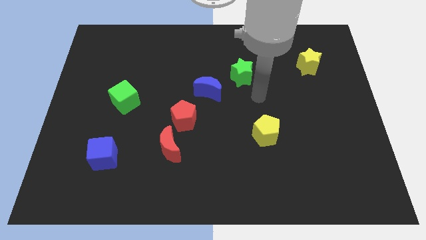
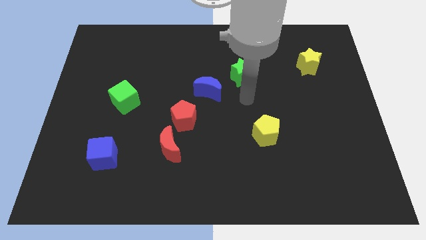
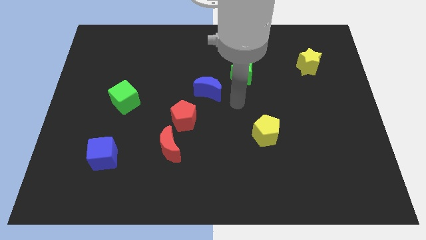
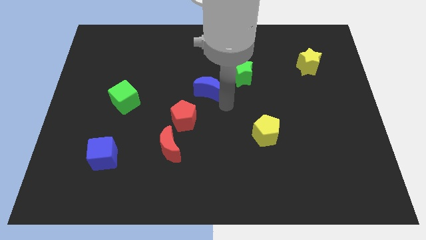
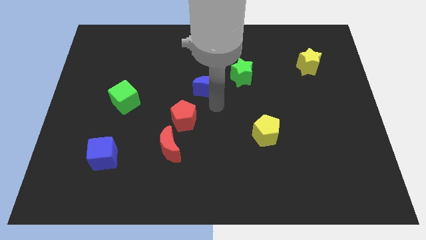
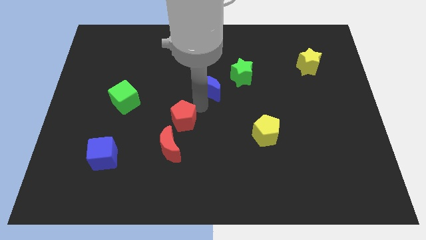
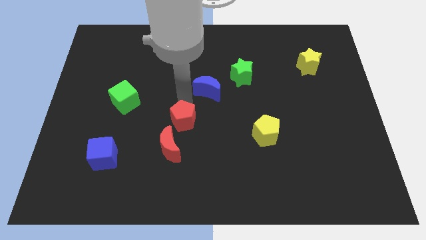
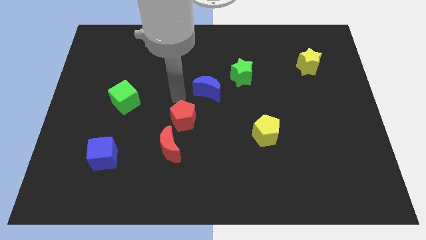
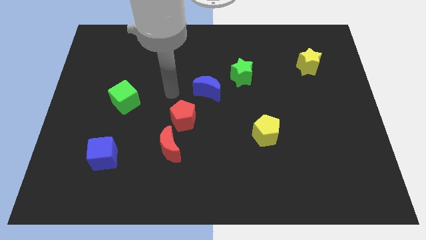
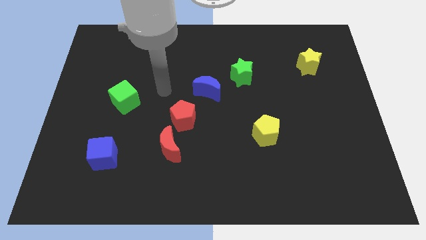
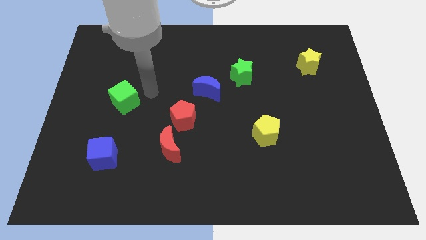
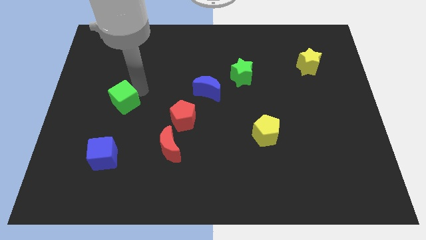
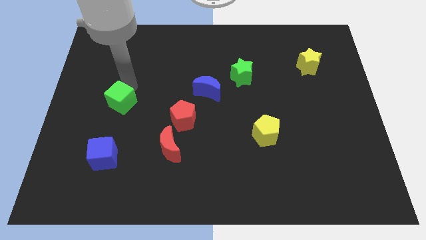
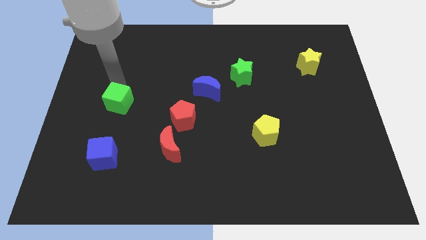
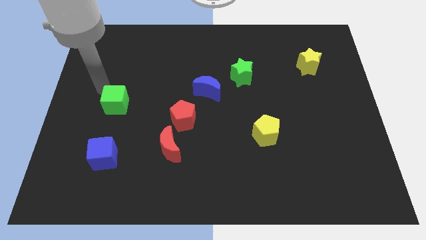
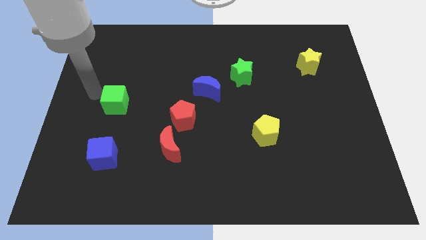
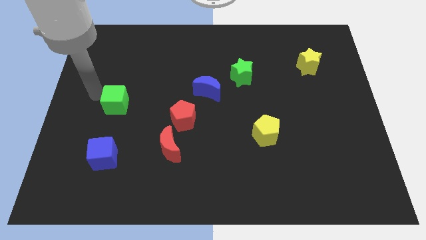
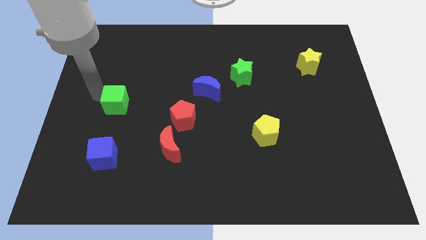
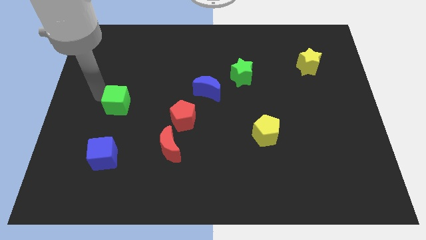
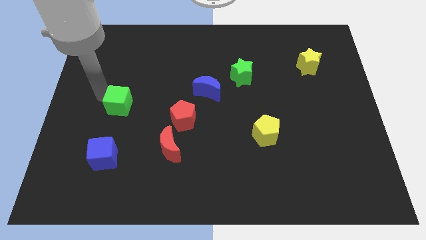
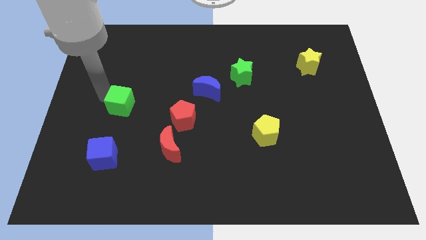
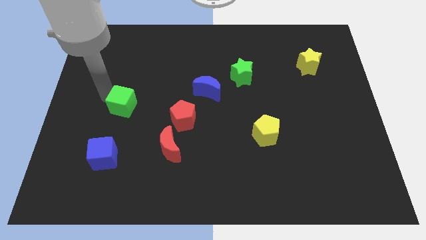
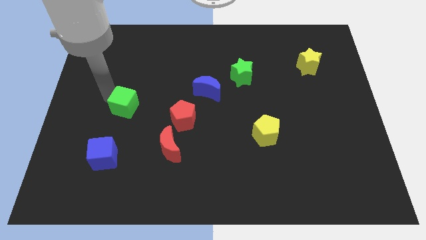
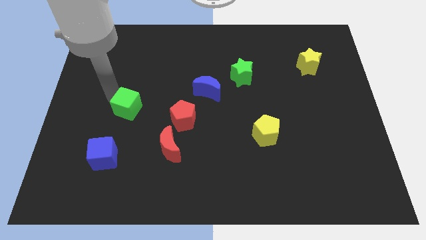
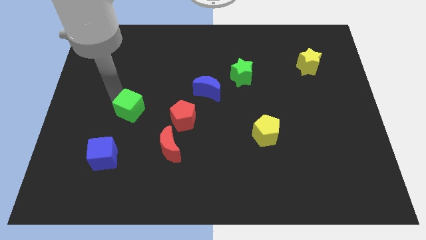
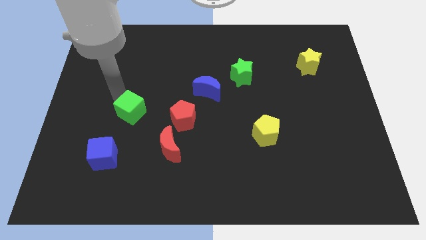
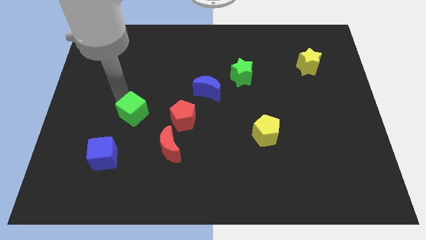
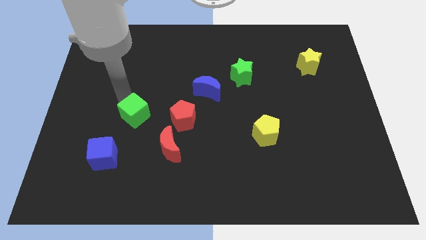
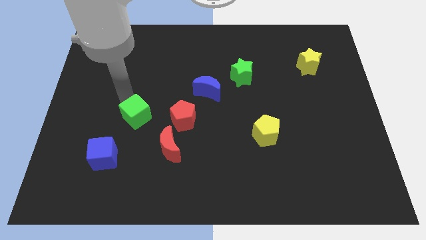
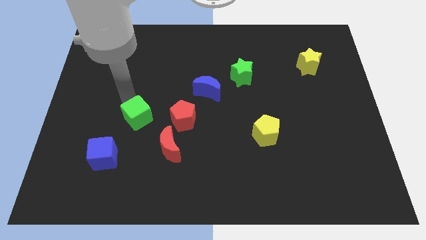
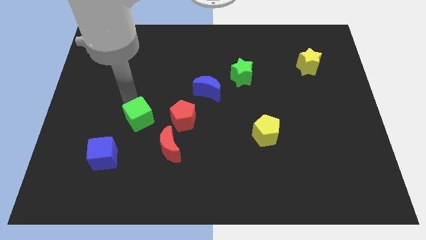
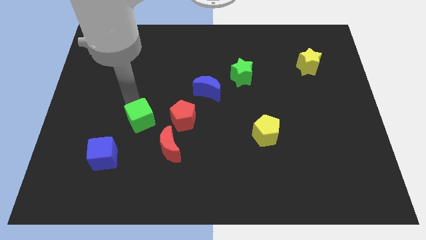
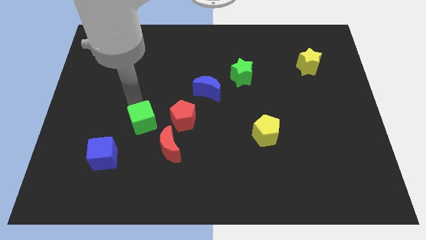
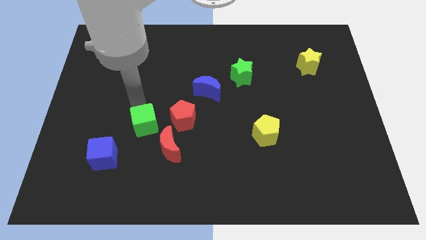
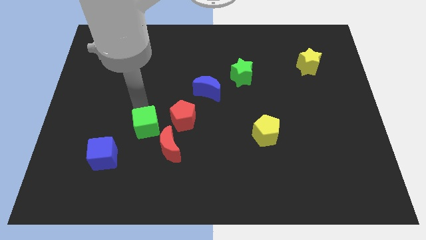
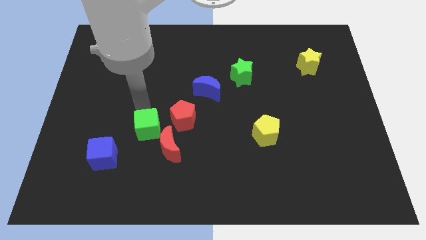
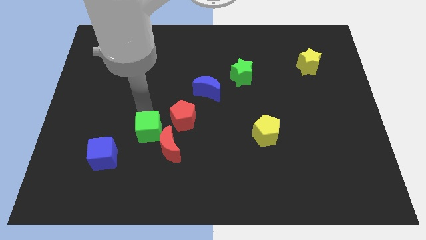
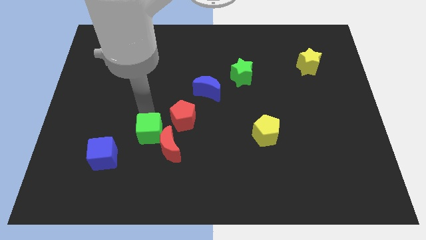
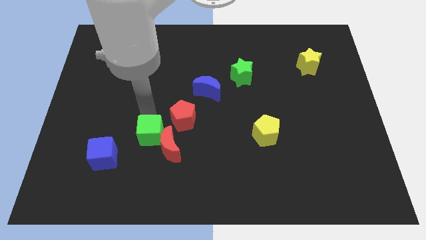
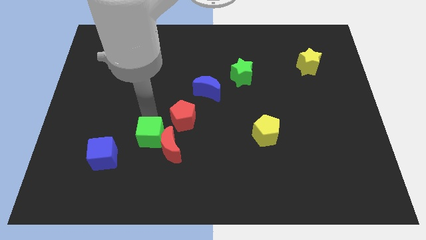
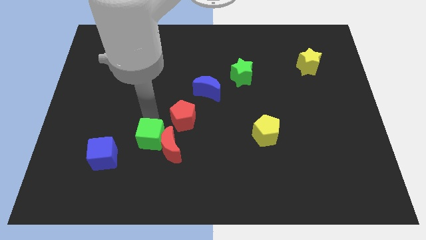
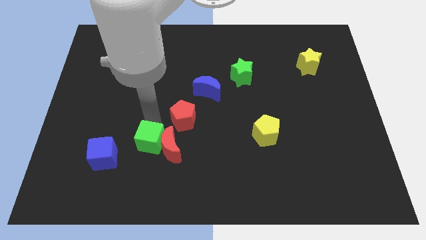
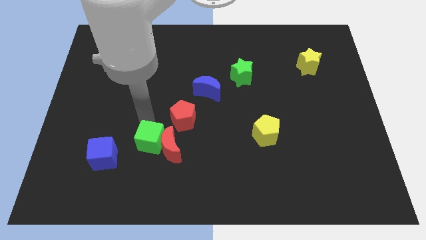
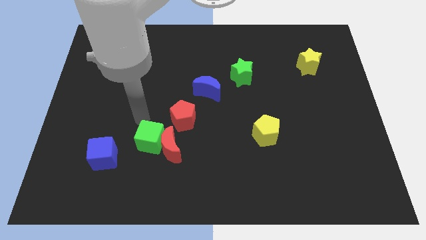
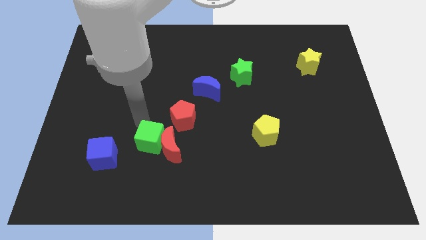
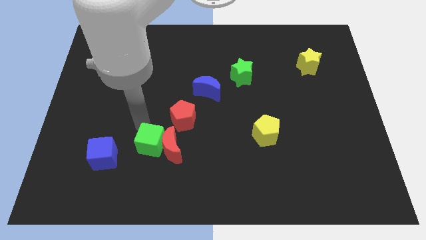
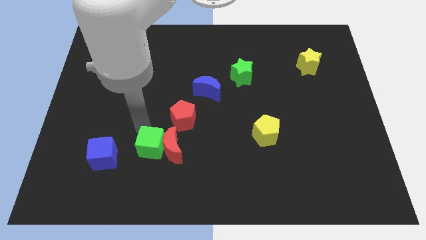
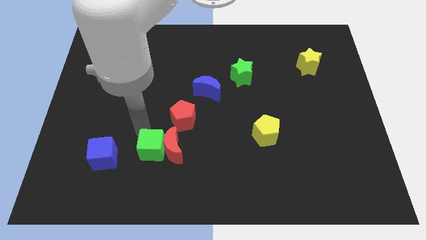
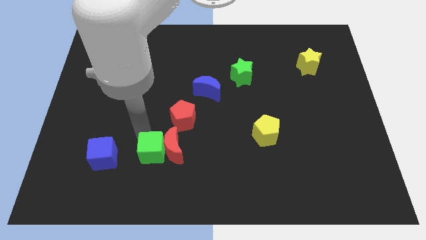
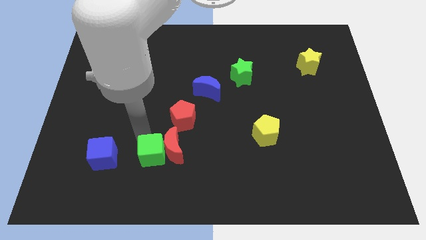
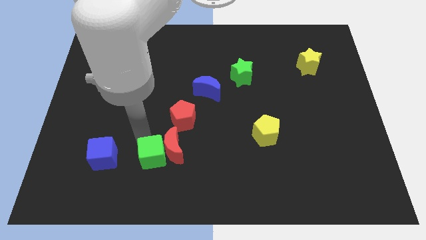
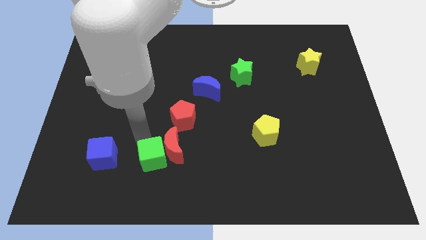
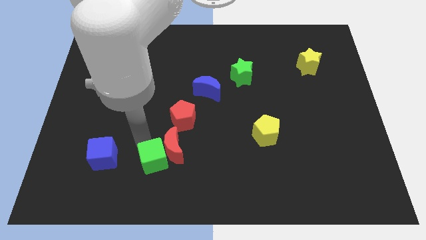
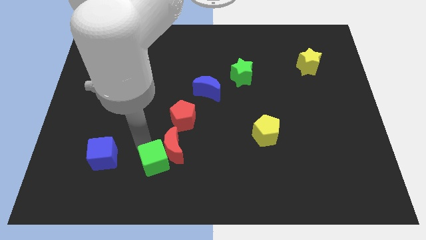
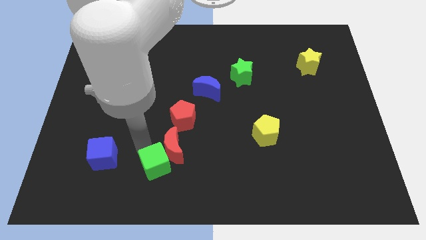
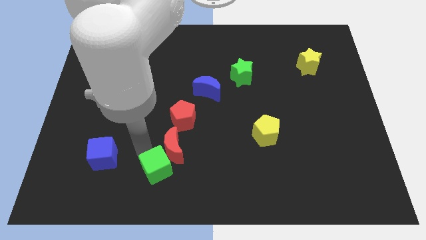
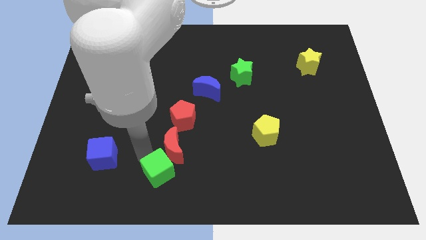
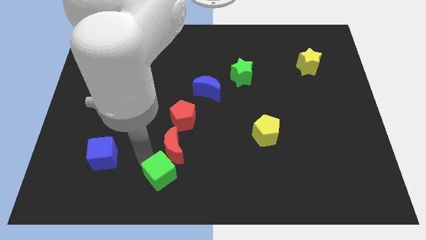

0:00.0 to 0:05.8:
move the green cube to the bottom side
